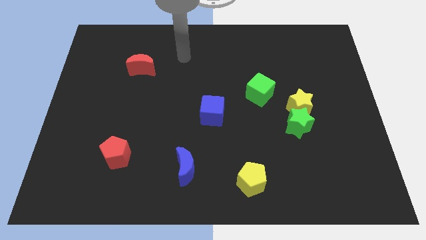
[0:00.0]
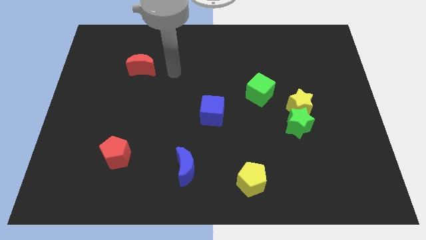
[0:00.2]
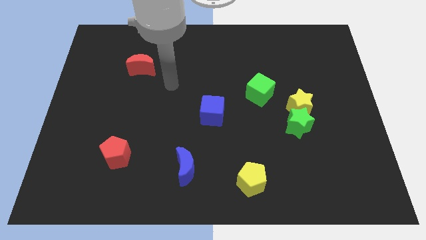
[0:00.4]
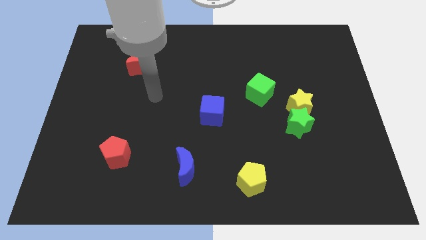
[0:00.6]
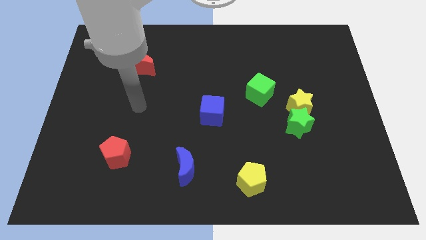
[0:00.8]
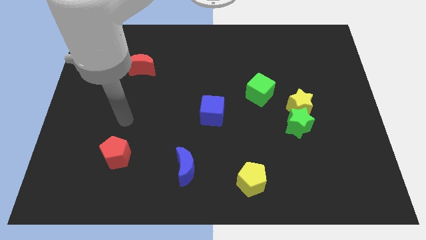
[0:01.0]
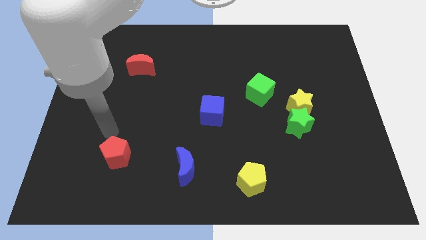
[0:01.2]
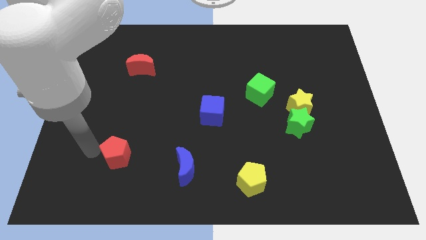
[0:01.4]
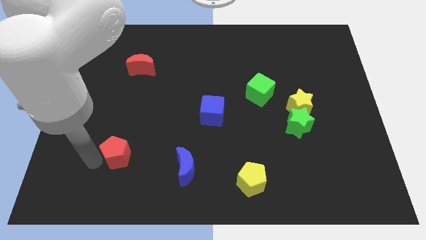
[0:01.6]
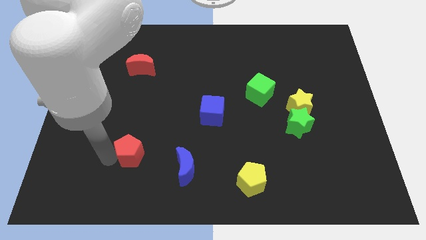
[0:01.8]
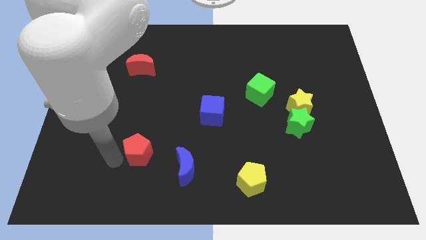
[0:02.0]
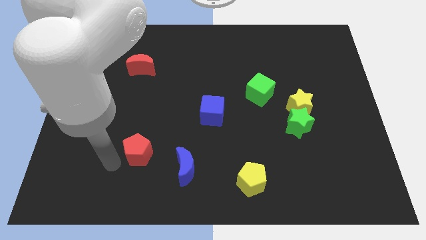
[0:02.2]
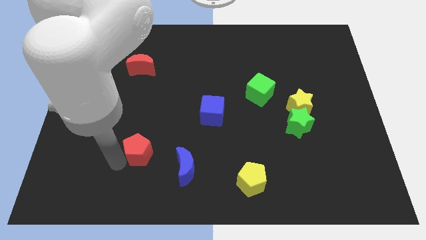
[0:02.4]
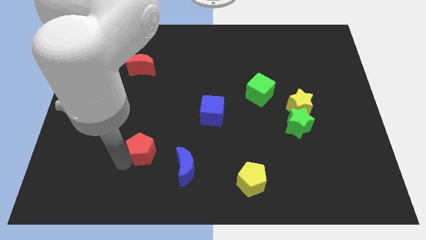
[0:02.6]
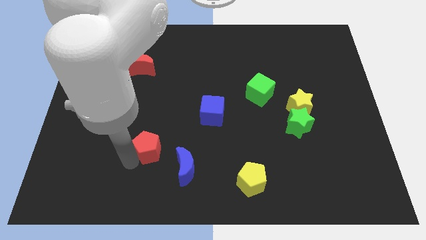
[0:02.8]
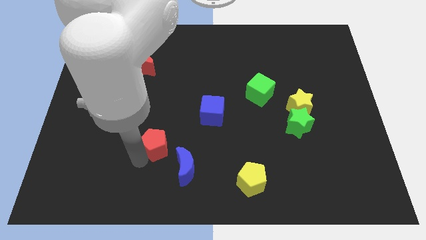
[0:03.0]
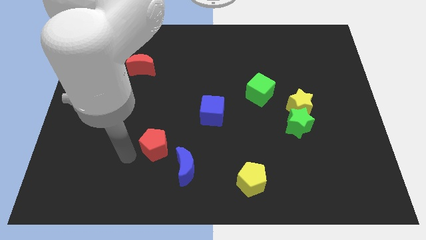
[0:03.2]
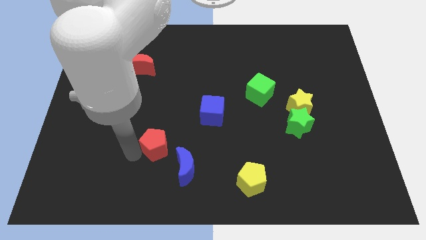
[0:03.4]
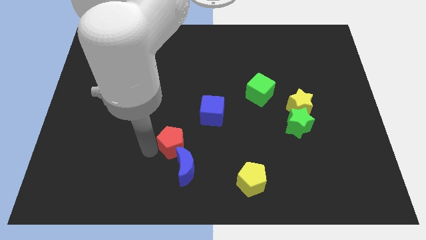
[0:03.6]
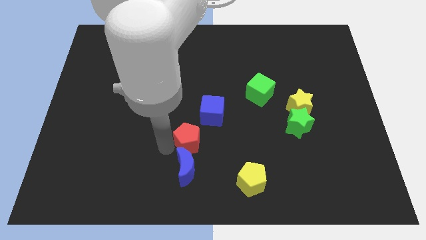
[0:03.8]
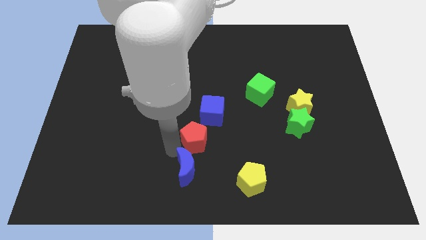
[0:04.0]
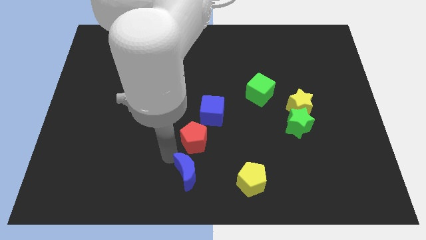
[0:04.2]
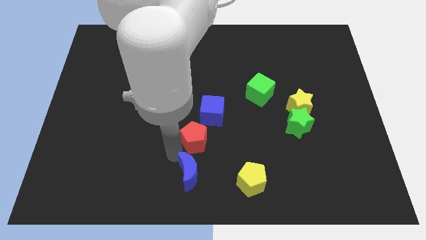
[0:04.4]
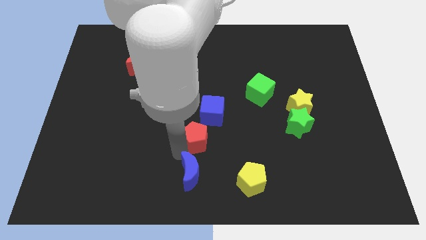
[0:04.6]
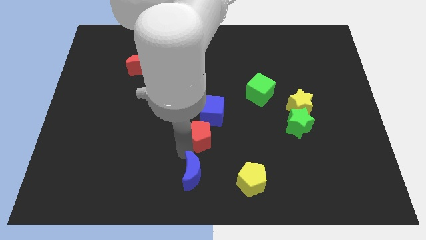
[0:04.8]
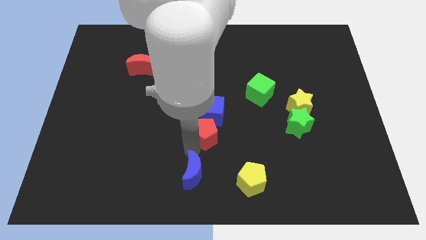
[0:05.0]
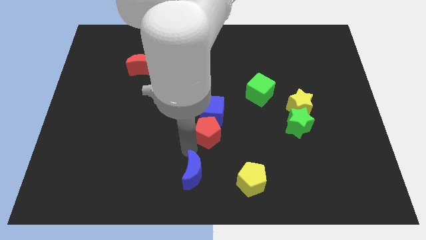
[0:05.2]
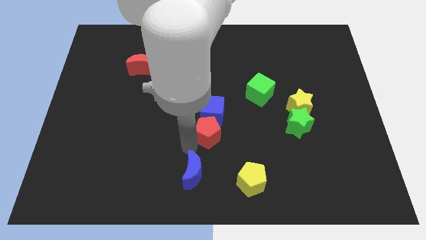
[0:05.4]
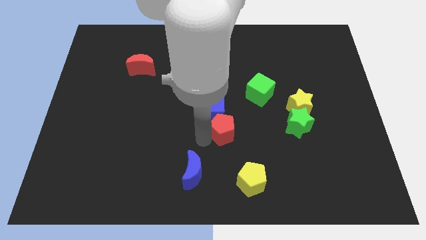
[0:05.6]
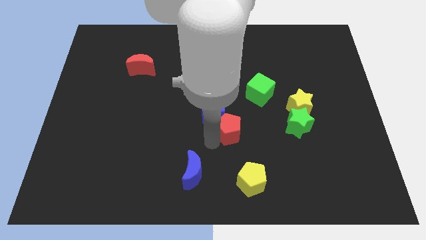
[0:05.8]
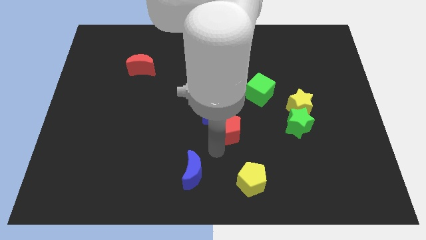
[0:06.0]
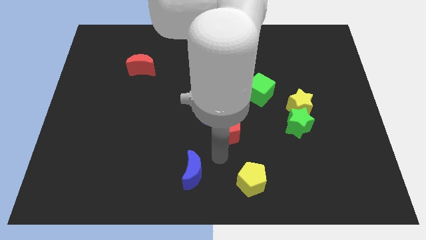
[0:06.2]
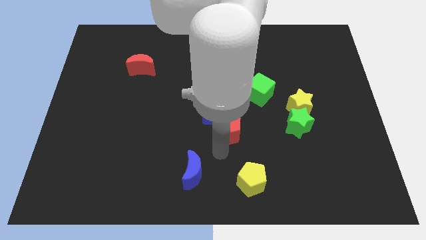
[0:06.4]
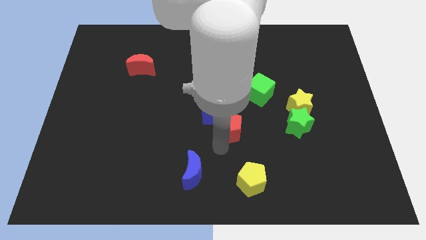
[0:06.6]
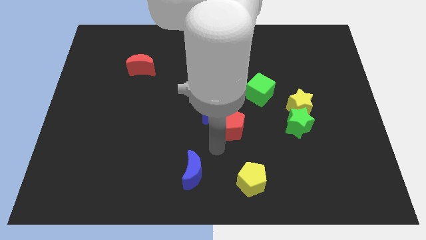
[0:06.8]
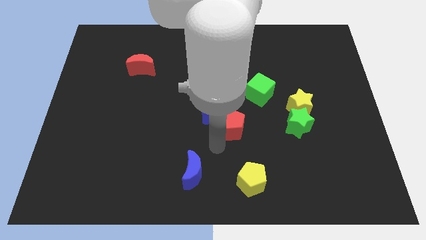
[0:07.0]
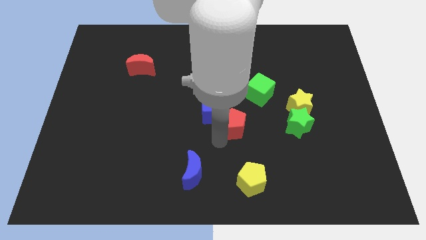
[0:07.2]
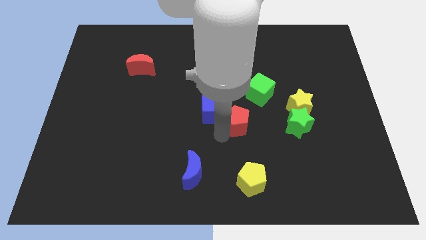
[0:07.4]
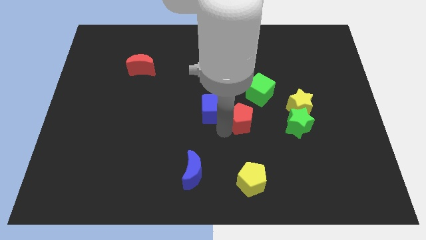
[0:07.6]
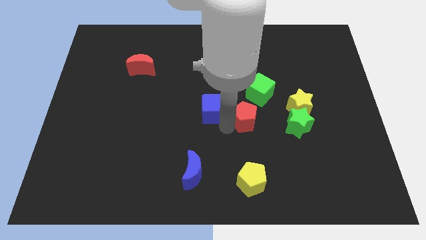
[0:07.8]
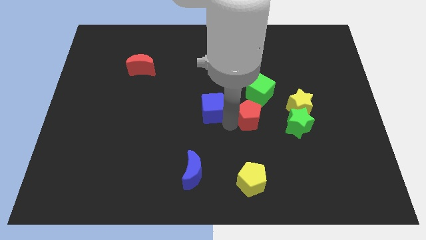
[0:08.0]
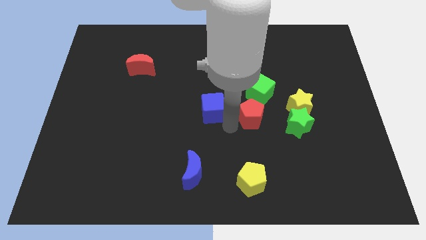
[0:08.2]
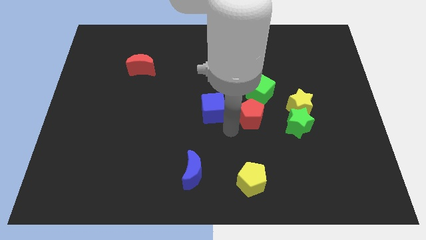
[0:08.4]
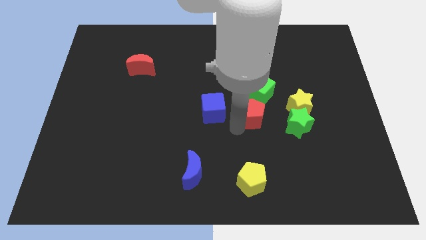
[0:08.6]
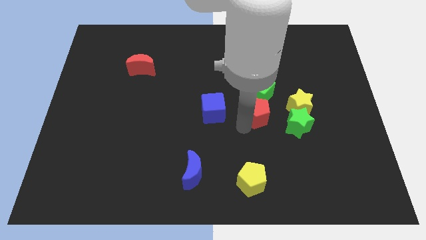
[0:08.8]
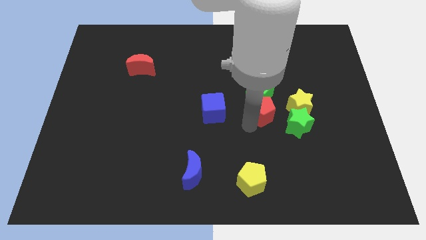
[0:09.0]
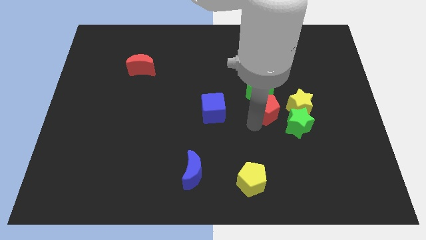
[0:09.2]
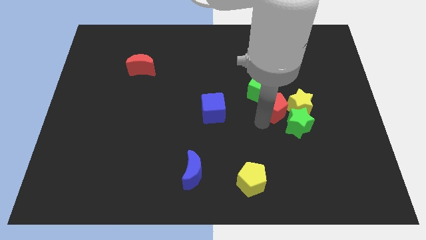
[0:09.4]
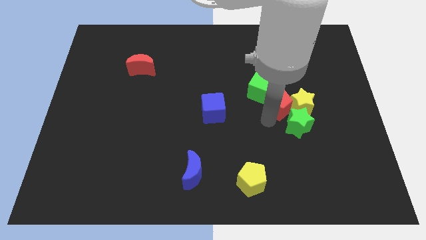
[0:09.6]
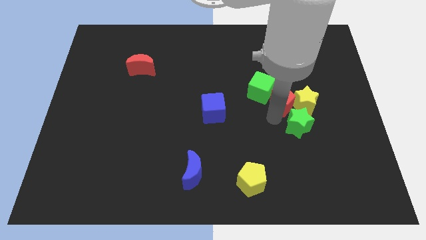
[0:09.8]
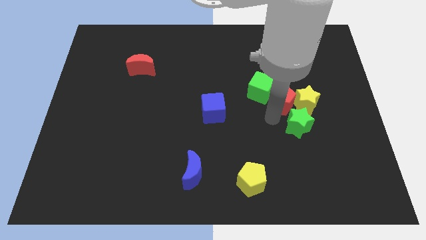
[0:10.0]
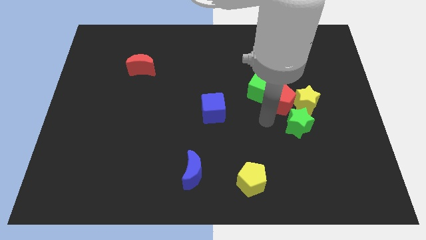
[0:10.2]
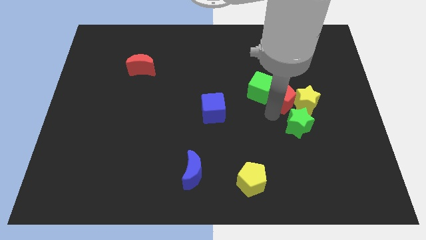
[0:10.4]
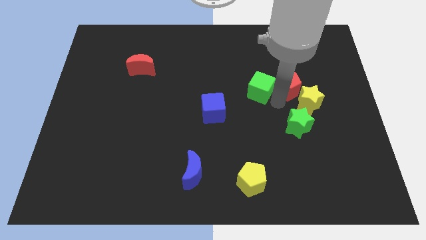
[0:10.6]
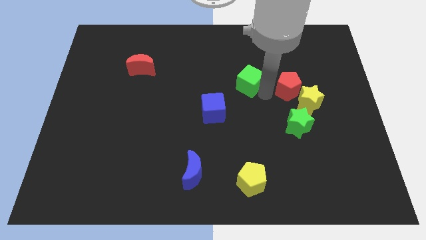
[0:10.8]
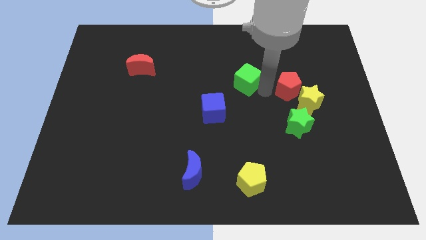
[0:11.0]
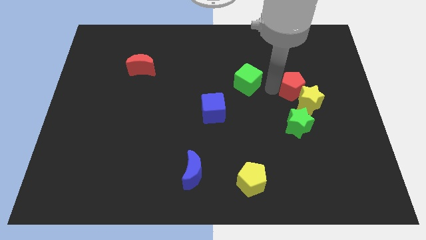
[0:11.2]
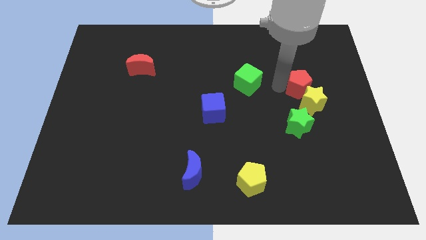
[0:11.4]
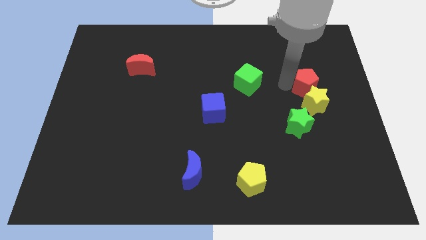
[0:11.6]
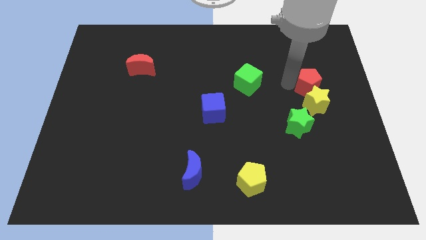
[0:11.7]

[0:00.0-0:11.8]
push the red pentagon to the top right side of the yellow star

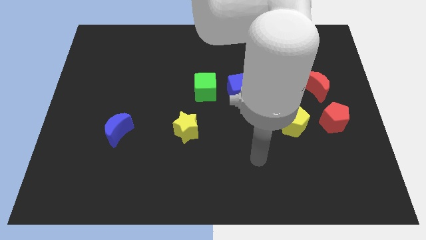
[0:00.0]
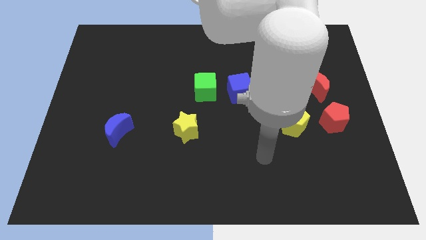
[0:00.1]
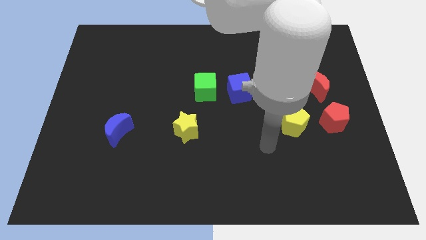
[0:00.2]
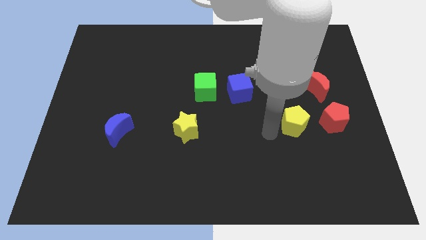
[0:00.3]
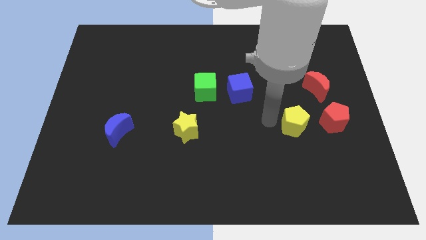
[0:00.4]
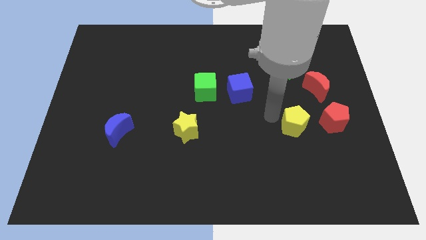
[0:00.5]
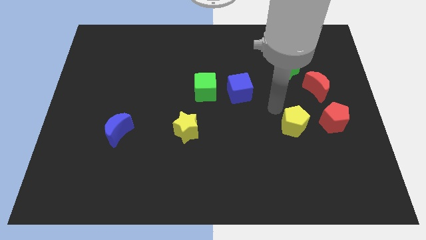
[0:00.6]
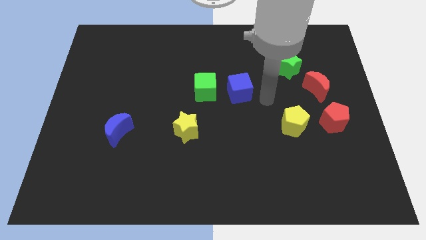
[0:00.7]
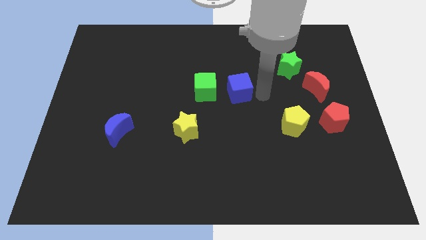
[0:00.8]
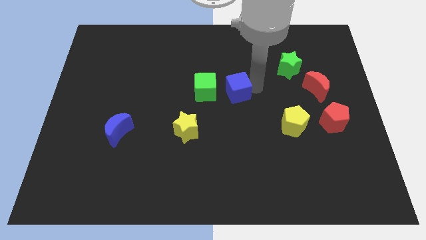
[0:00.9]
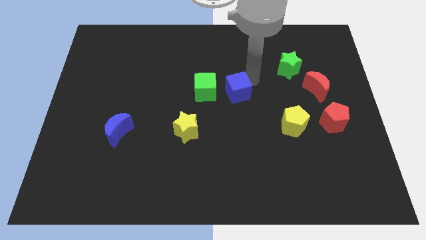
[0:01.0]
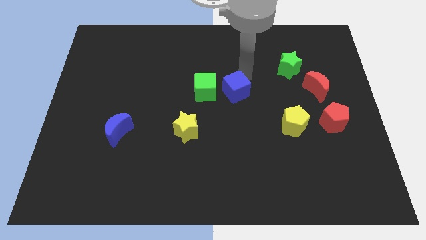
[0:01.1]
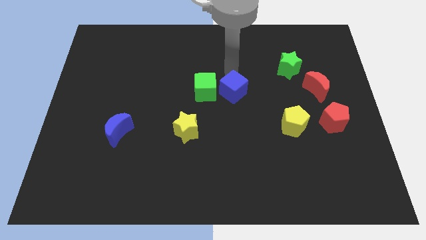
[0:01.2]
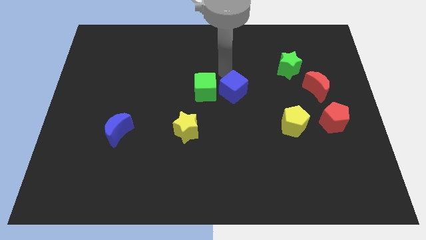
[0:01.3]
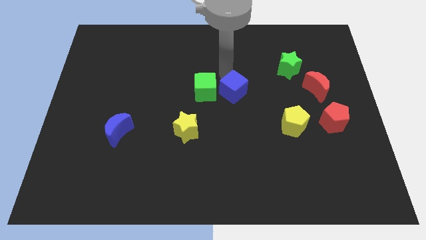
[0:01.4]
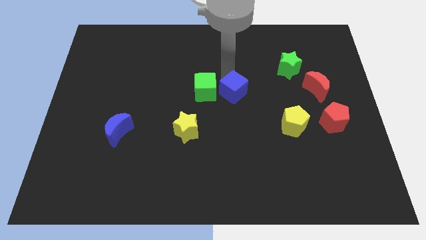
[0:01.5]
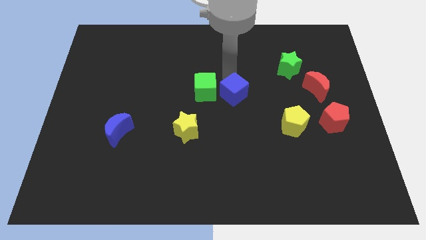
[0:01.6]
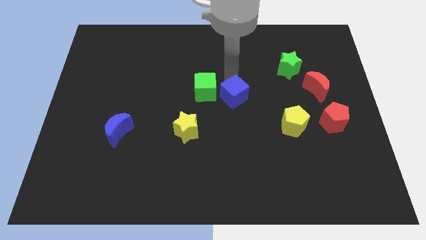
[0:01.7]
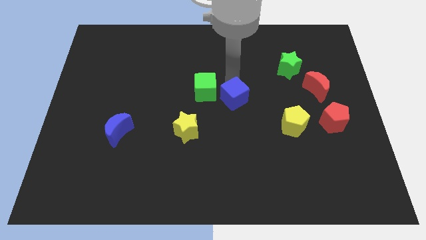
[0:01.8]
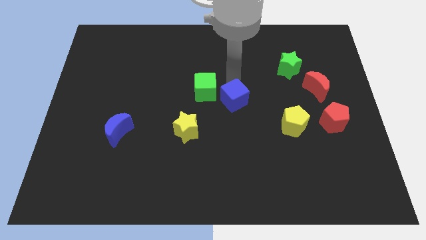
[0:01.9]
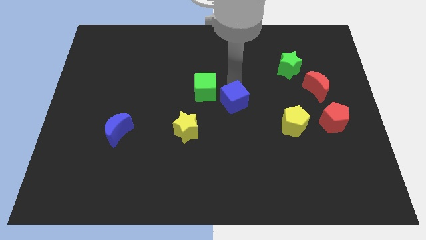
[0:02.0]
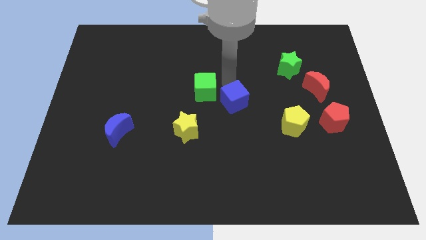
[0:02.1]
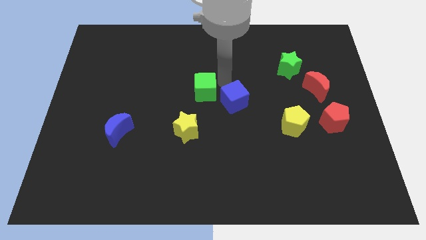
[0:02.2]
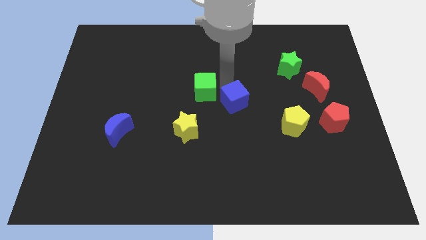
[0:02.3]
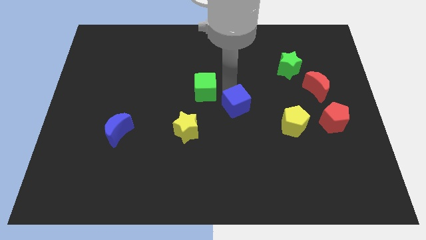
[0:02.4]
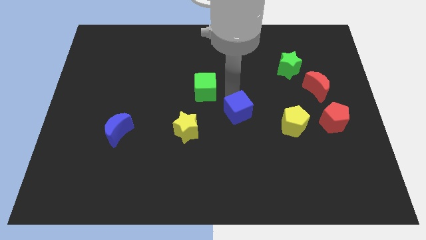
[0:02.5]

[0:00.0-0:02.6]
push the blue cube left of the yellow pentagon
